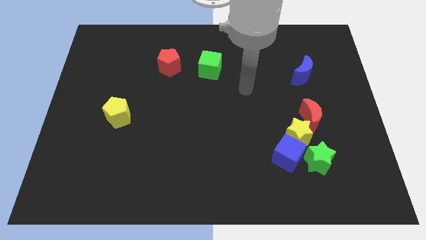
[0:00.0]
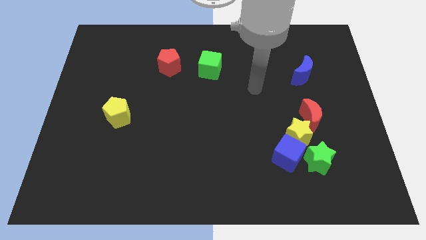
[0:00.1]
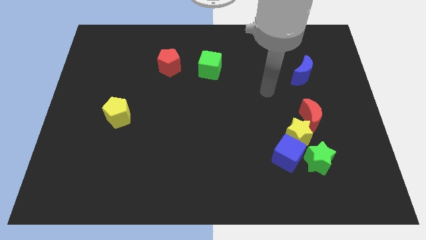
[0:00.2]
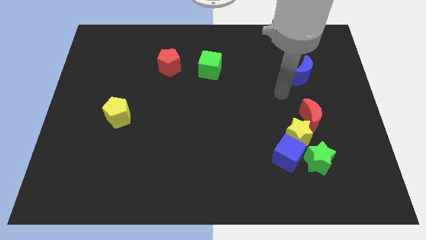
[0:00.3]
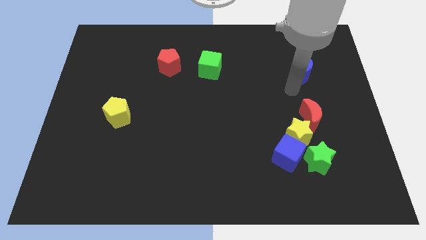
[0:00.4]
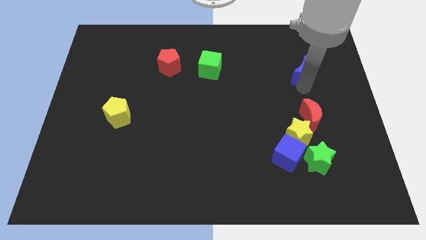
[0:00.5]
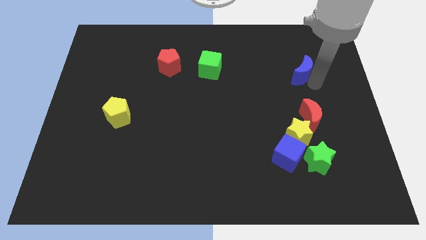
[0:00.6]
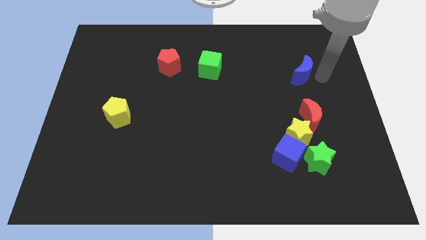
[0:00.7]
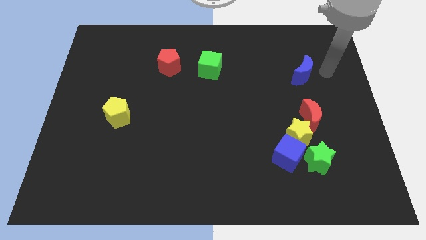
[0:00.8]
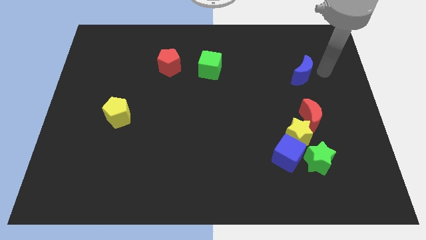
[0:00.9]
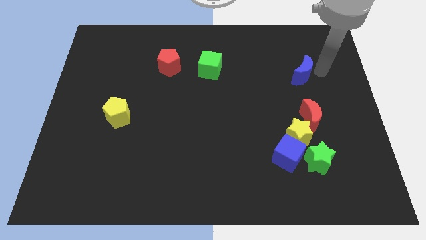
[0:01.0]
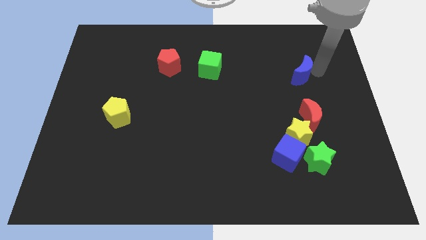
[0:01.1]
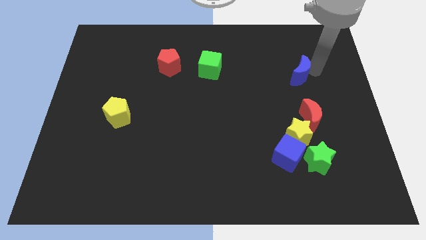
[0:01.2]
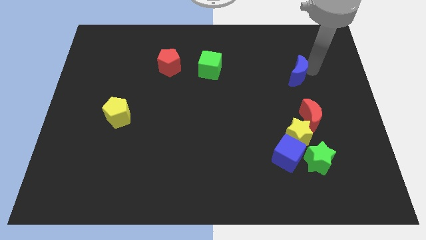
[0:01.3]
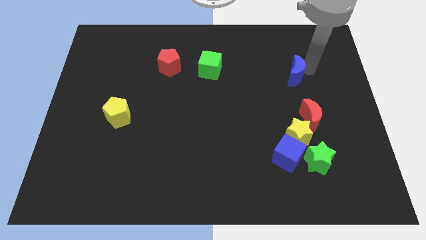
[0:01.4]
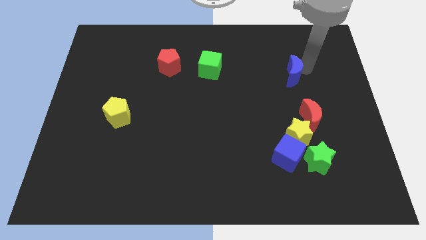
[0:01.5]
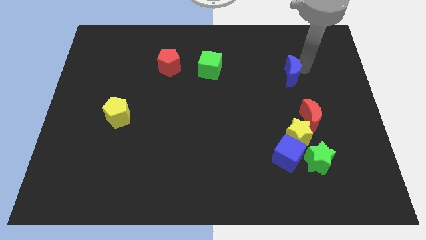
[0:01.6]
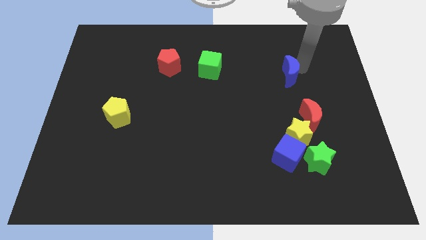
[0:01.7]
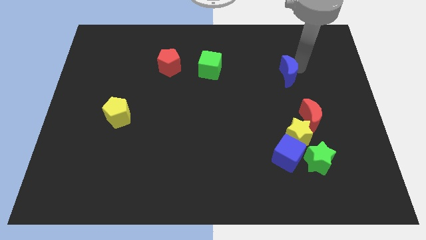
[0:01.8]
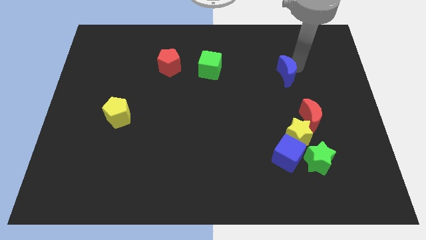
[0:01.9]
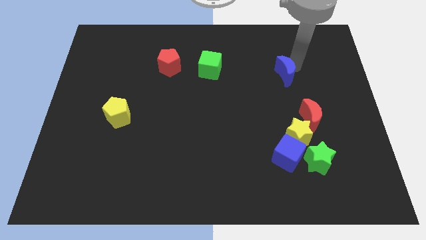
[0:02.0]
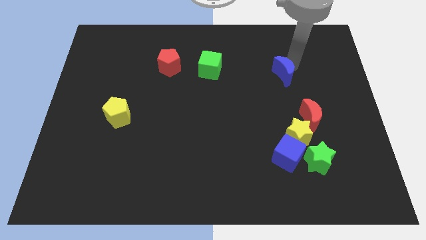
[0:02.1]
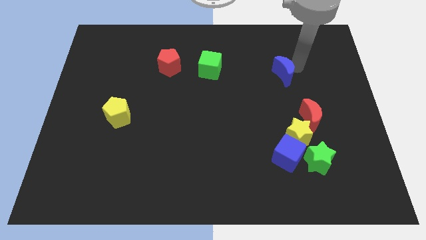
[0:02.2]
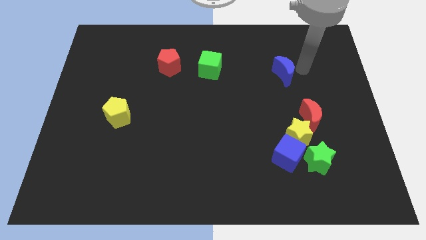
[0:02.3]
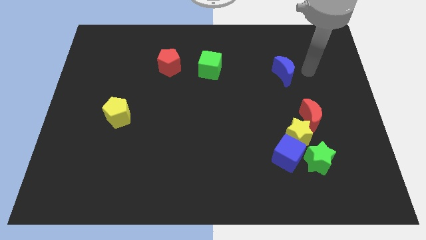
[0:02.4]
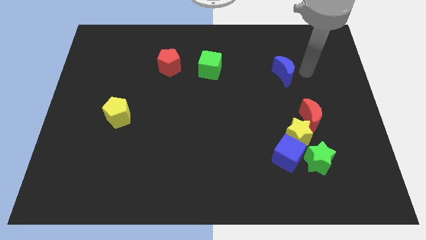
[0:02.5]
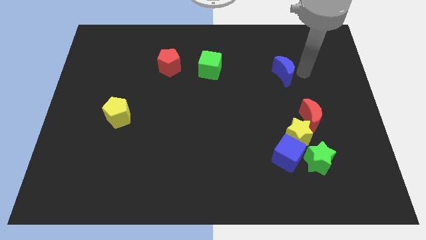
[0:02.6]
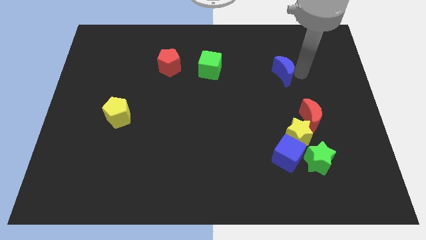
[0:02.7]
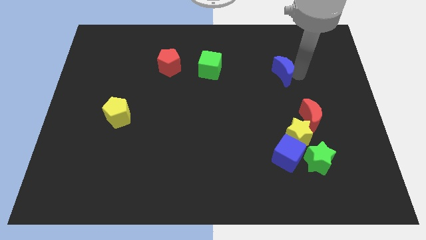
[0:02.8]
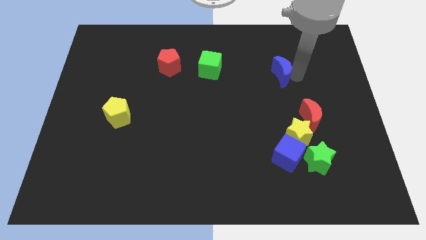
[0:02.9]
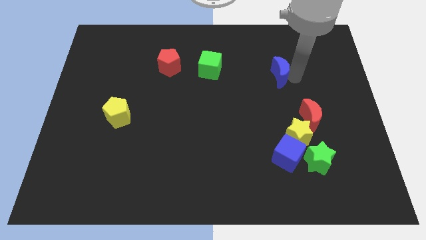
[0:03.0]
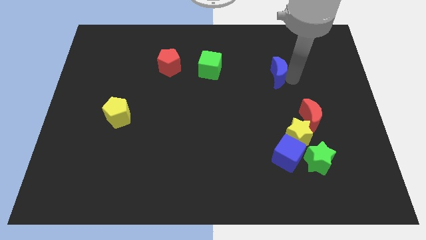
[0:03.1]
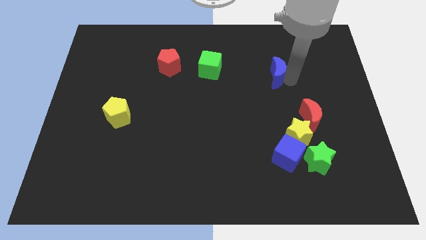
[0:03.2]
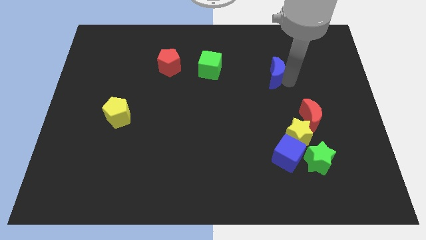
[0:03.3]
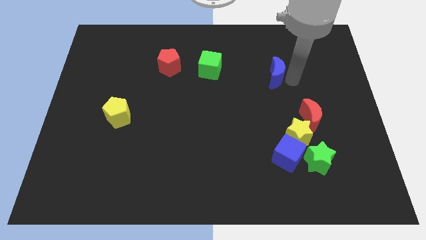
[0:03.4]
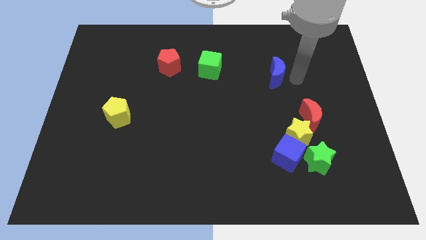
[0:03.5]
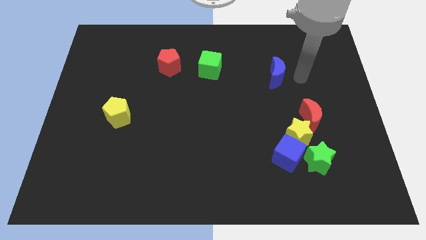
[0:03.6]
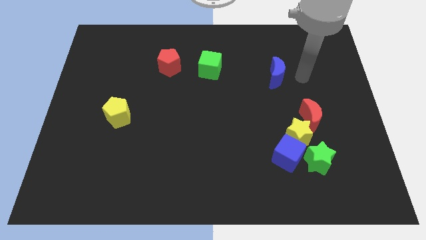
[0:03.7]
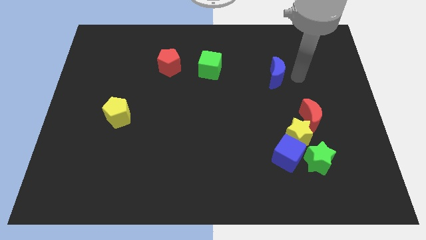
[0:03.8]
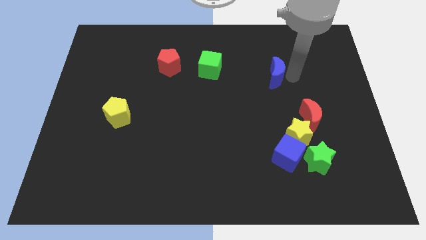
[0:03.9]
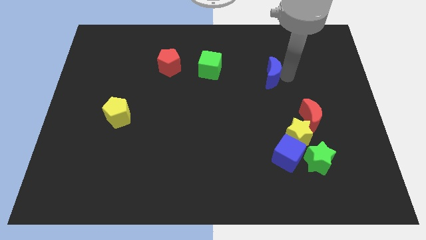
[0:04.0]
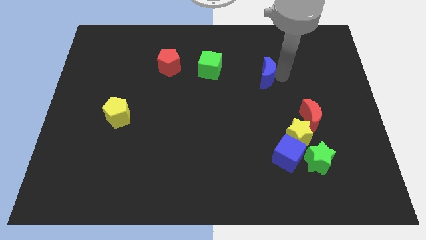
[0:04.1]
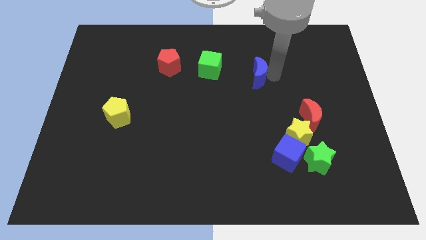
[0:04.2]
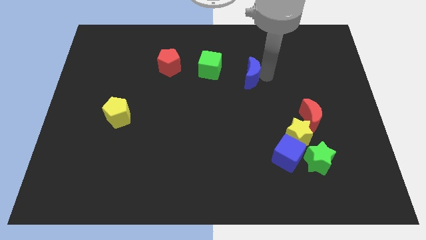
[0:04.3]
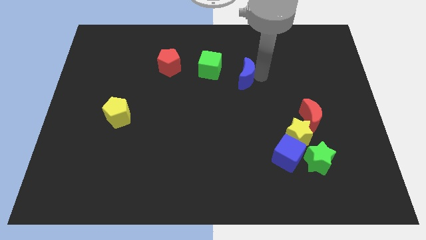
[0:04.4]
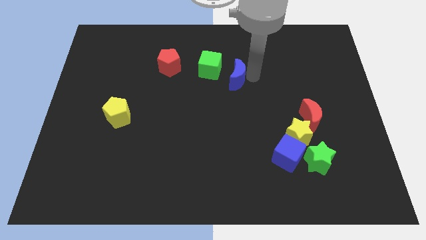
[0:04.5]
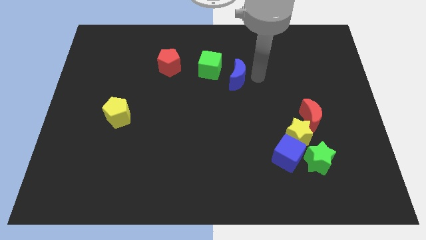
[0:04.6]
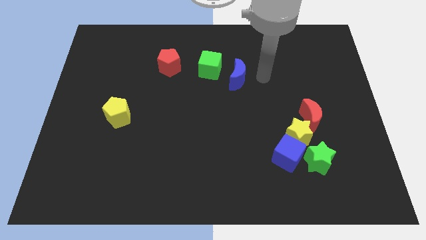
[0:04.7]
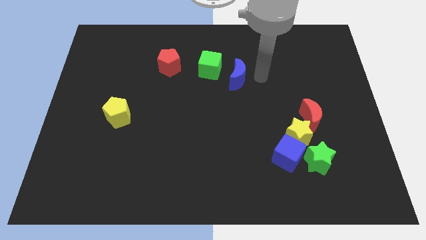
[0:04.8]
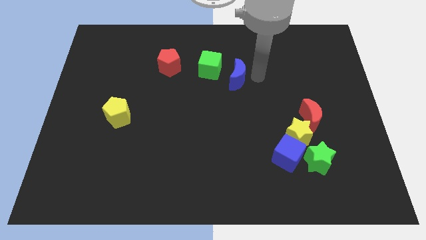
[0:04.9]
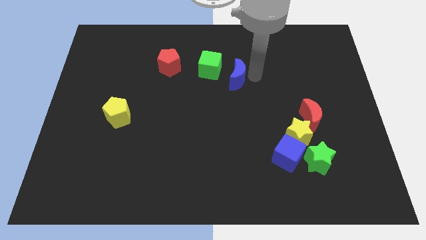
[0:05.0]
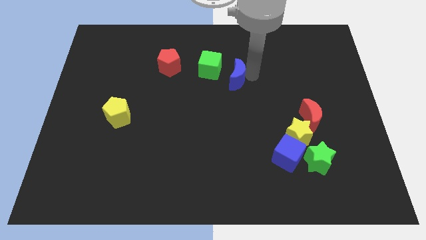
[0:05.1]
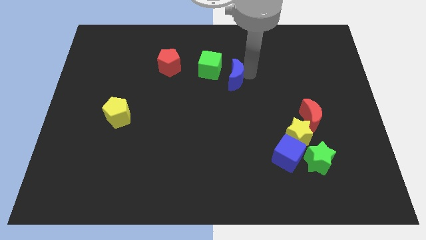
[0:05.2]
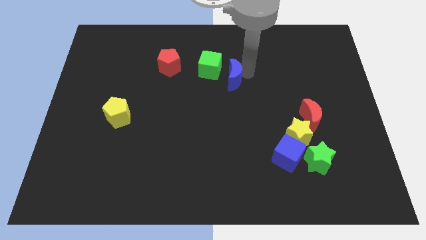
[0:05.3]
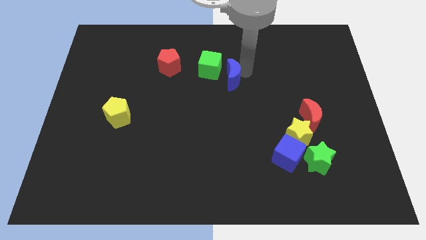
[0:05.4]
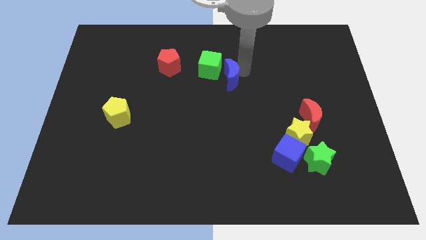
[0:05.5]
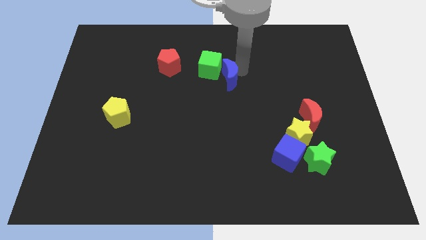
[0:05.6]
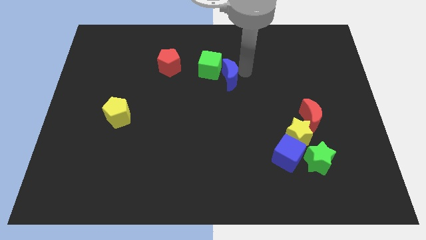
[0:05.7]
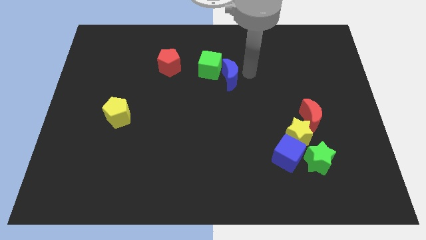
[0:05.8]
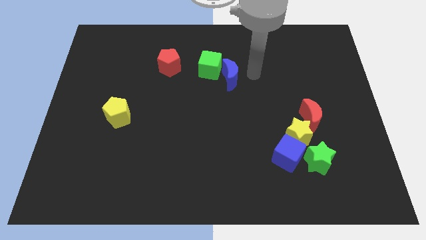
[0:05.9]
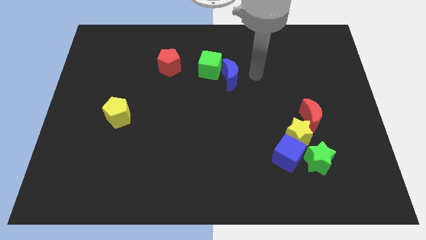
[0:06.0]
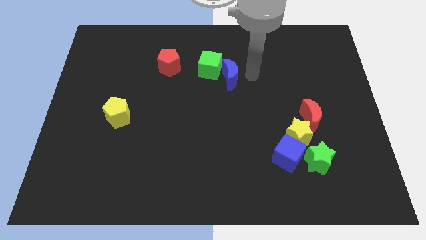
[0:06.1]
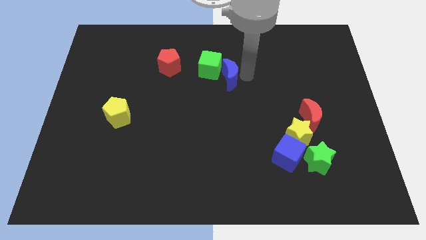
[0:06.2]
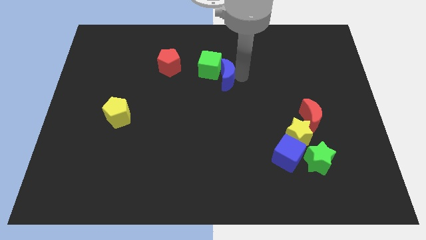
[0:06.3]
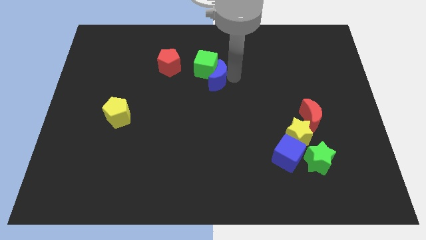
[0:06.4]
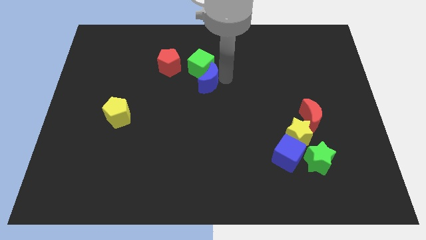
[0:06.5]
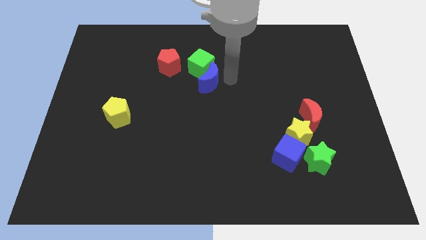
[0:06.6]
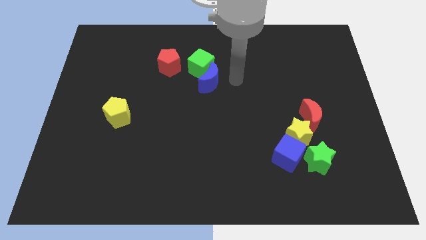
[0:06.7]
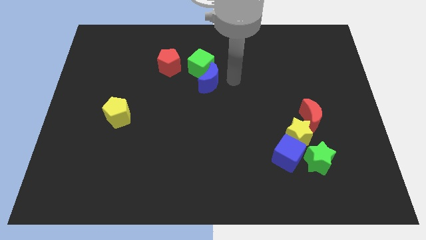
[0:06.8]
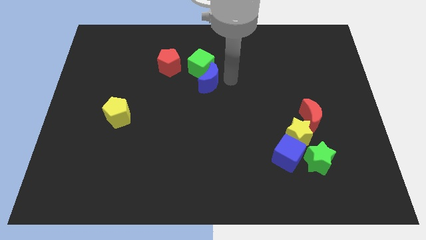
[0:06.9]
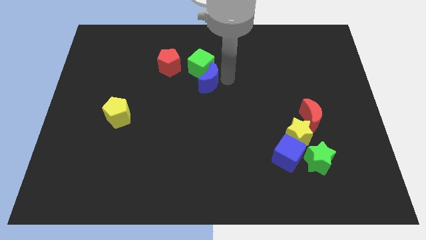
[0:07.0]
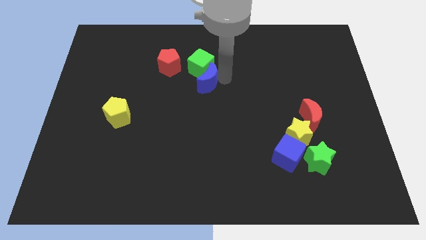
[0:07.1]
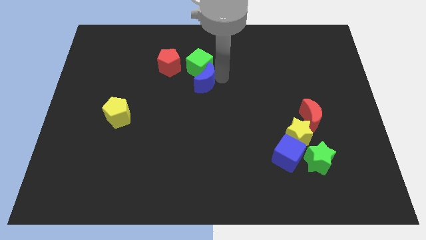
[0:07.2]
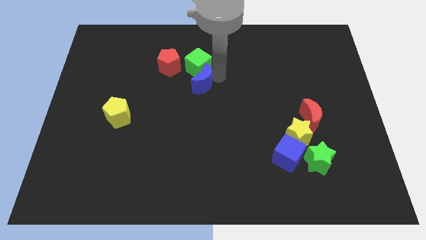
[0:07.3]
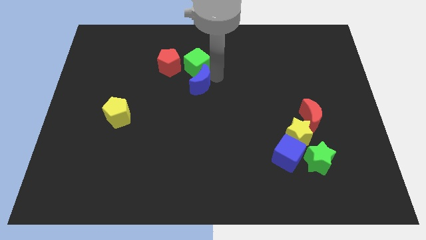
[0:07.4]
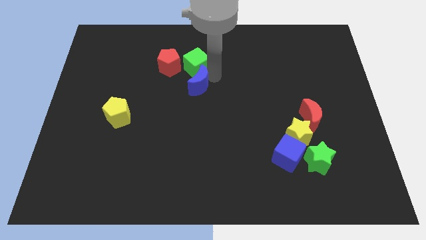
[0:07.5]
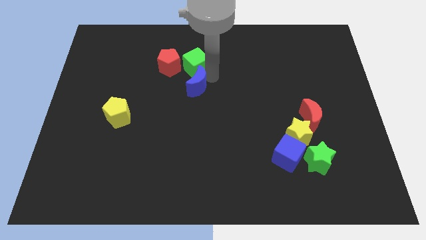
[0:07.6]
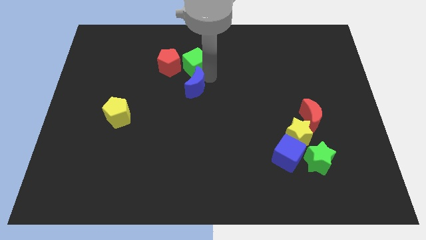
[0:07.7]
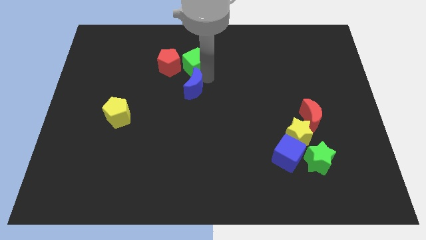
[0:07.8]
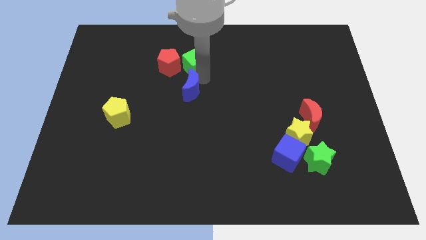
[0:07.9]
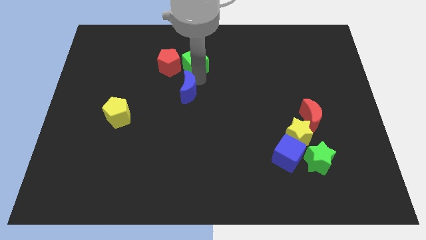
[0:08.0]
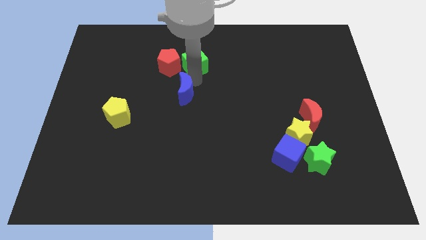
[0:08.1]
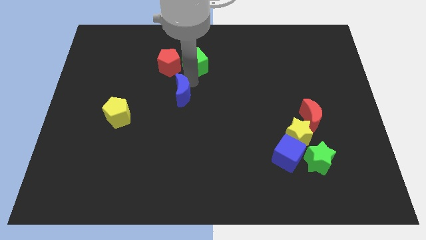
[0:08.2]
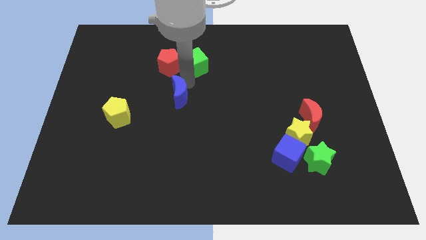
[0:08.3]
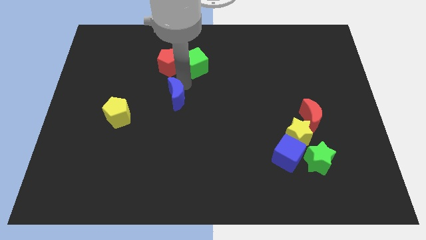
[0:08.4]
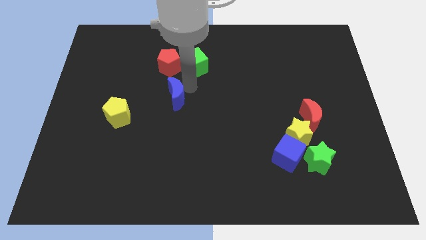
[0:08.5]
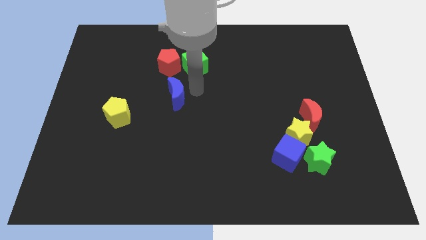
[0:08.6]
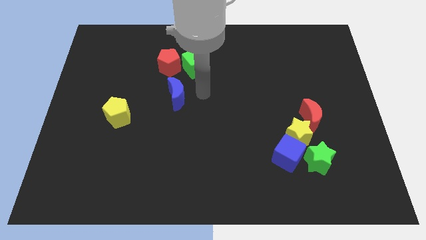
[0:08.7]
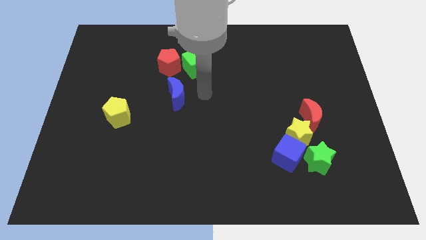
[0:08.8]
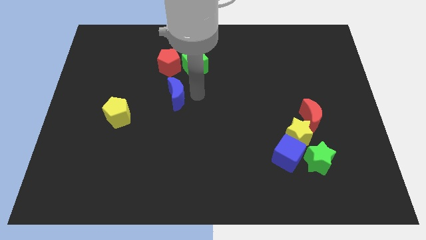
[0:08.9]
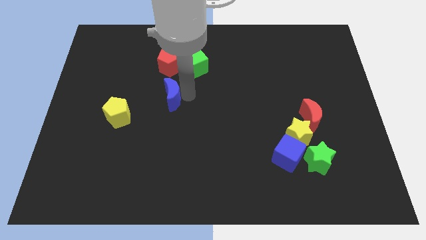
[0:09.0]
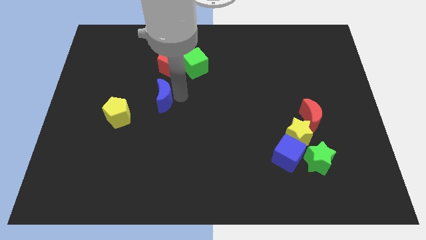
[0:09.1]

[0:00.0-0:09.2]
slide the blue moon diagonally up and to the right of the yellow pentagon
